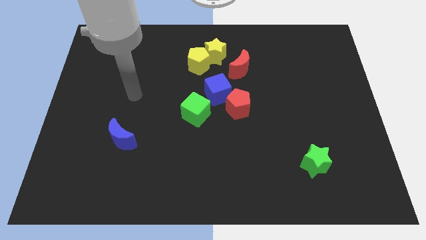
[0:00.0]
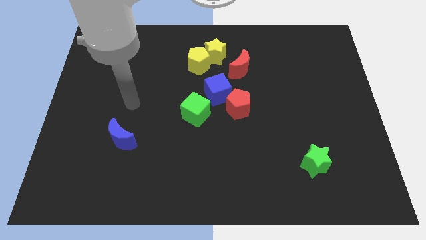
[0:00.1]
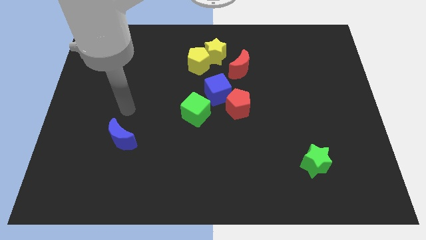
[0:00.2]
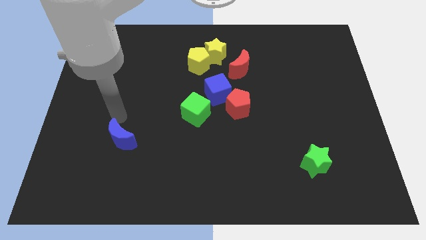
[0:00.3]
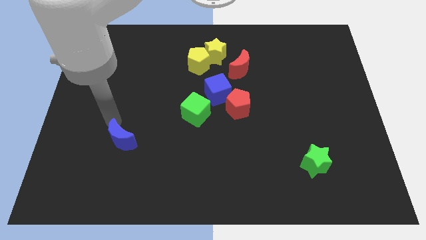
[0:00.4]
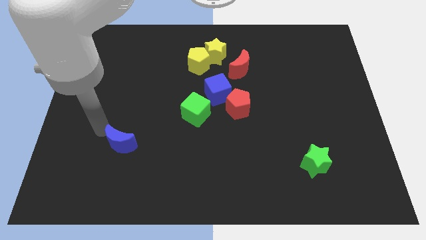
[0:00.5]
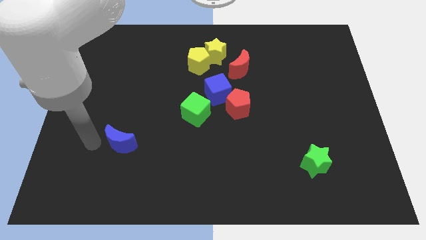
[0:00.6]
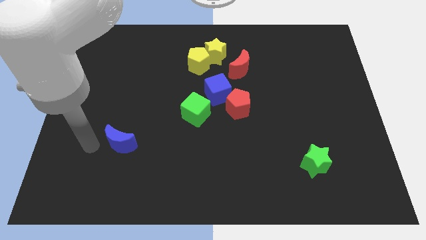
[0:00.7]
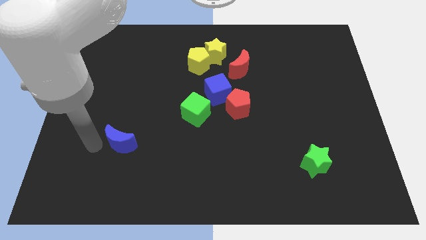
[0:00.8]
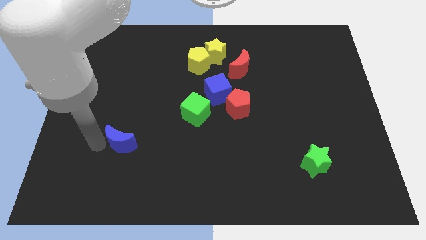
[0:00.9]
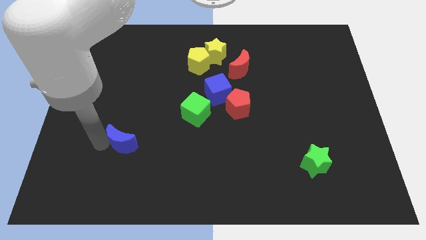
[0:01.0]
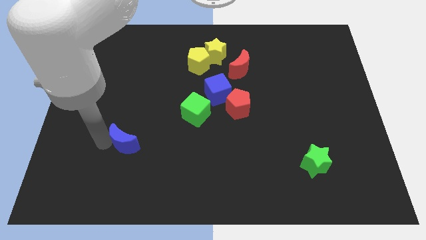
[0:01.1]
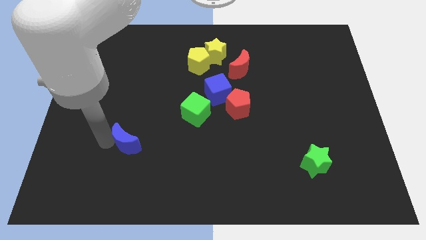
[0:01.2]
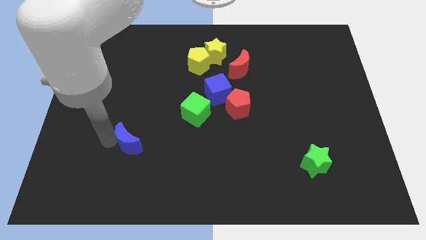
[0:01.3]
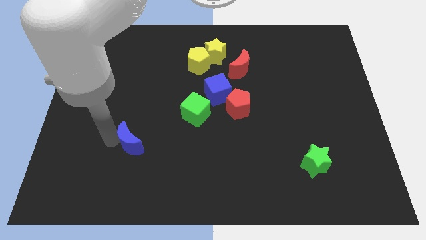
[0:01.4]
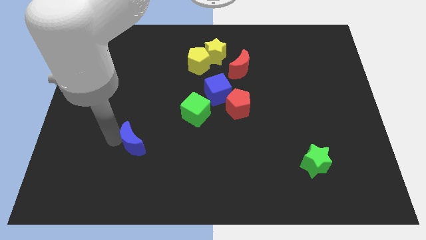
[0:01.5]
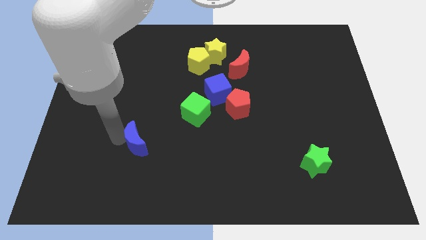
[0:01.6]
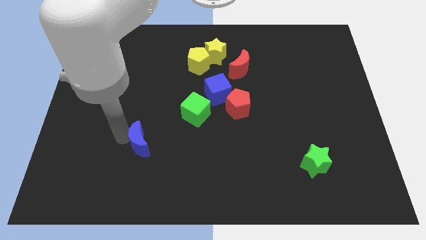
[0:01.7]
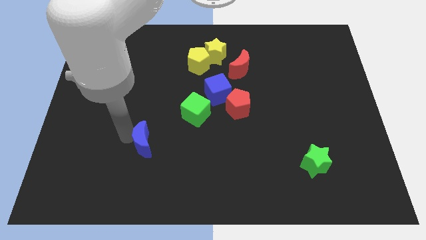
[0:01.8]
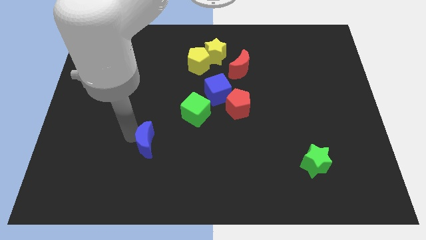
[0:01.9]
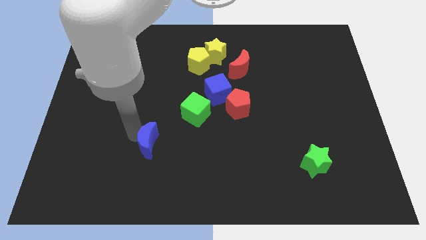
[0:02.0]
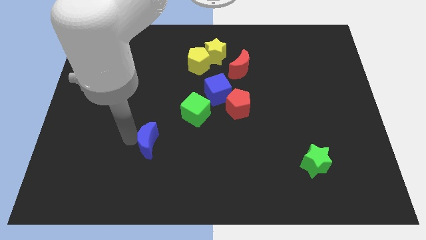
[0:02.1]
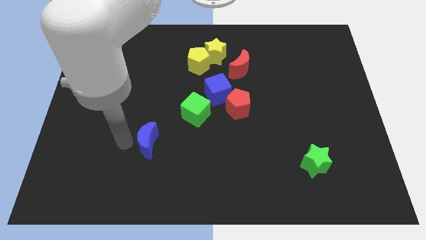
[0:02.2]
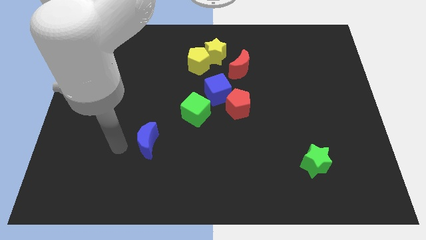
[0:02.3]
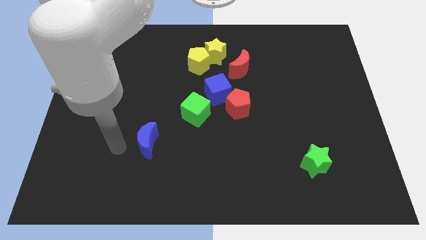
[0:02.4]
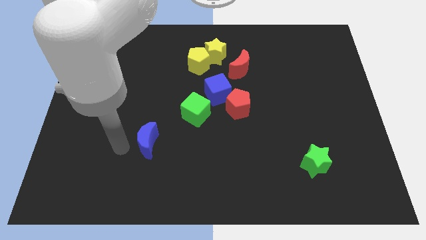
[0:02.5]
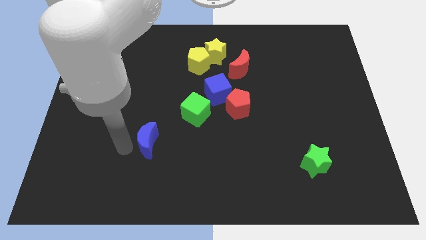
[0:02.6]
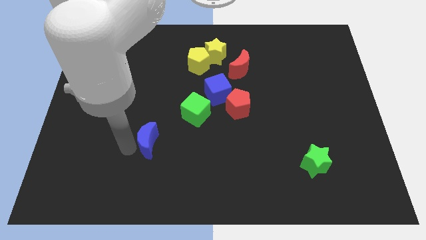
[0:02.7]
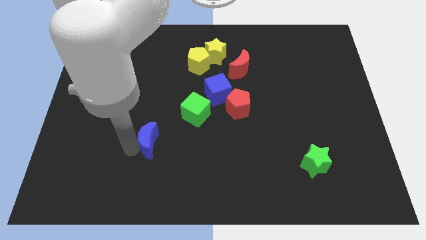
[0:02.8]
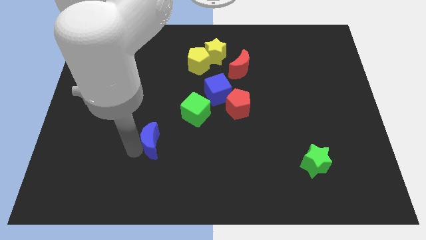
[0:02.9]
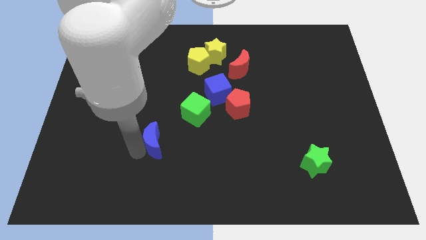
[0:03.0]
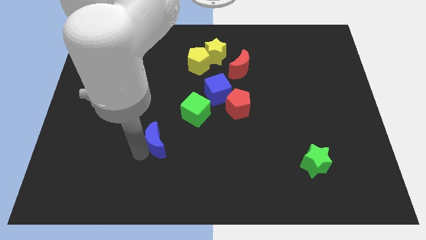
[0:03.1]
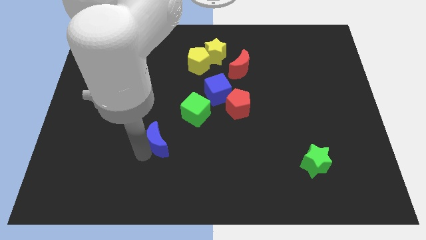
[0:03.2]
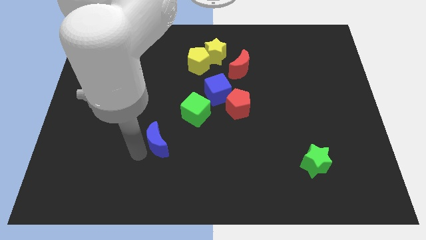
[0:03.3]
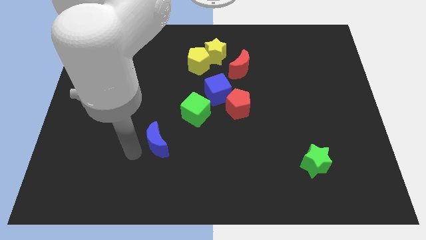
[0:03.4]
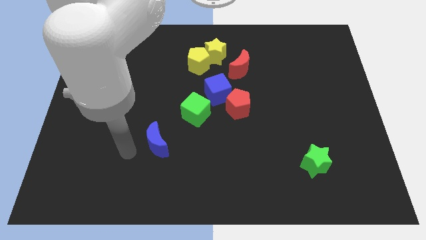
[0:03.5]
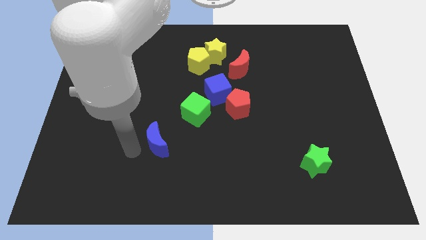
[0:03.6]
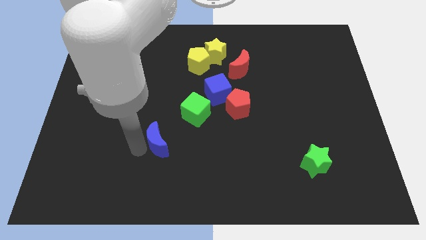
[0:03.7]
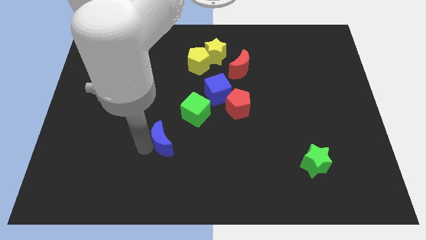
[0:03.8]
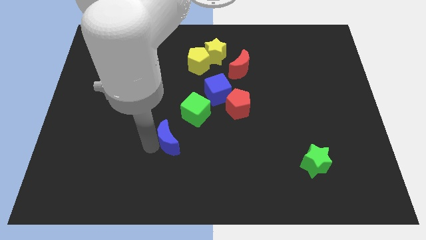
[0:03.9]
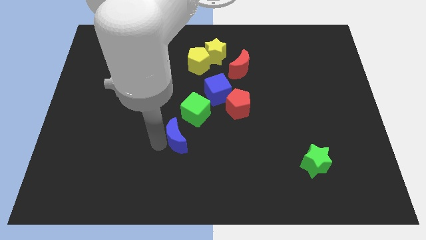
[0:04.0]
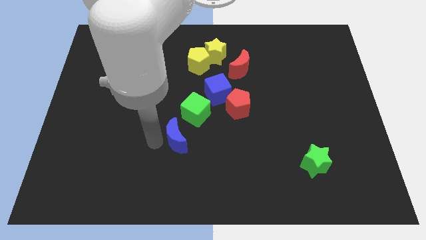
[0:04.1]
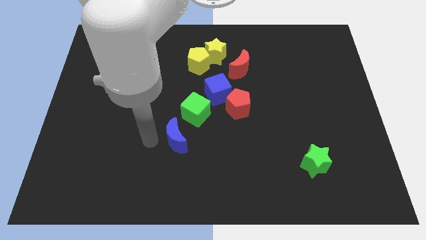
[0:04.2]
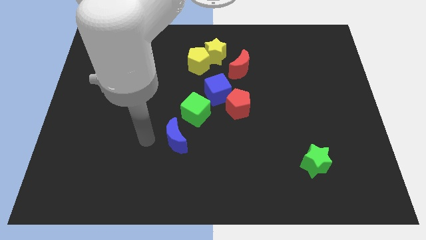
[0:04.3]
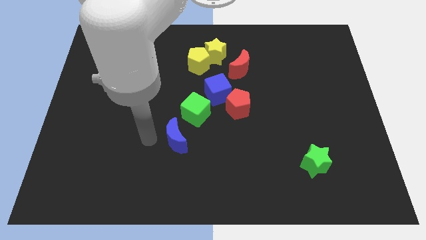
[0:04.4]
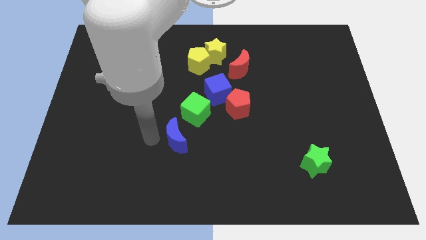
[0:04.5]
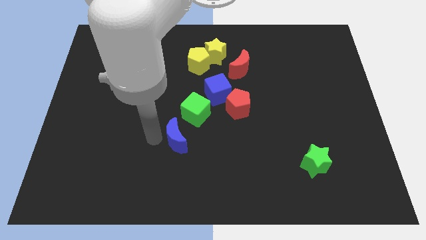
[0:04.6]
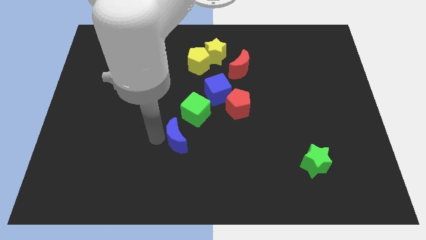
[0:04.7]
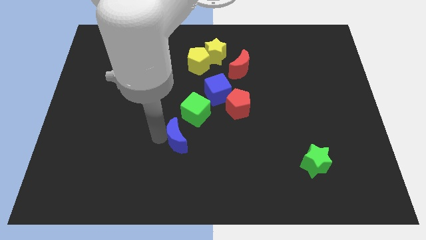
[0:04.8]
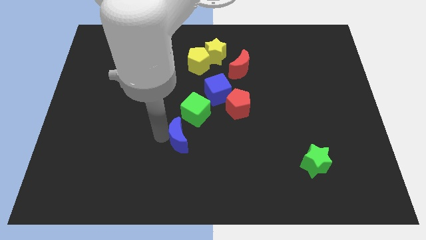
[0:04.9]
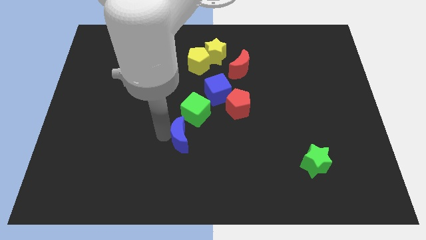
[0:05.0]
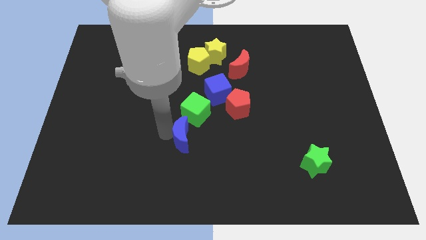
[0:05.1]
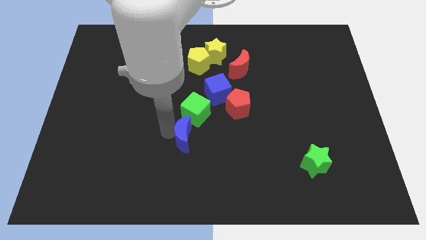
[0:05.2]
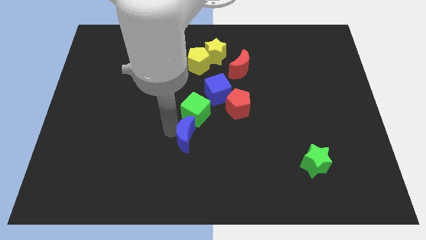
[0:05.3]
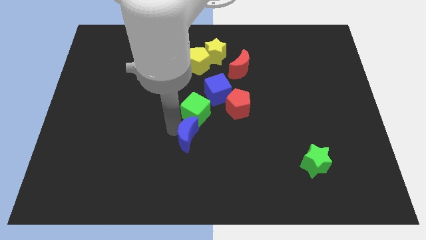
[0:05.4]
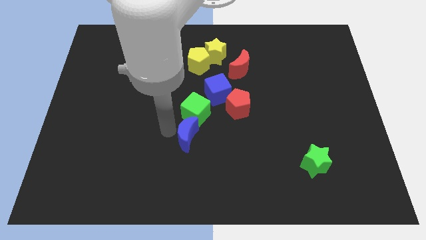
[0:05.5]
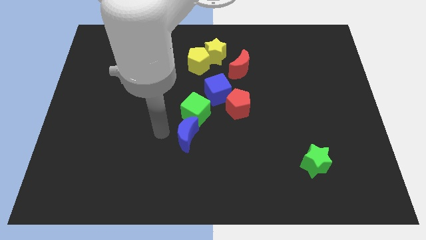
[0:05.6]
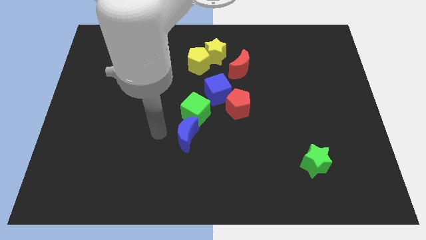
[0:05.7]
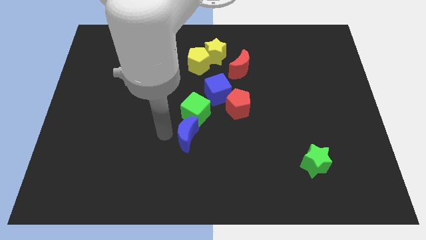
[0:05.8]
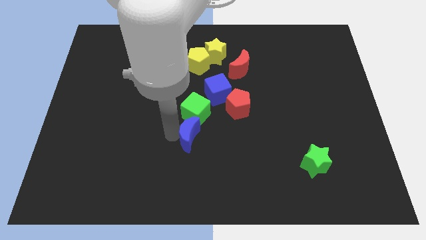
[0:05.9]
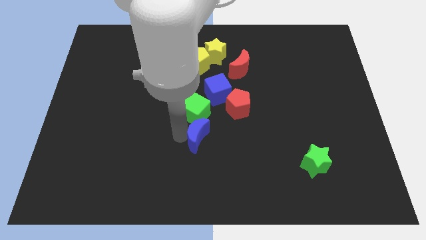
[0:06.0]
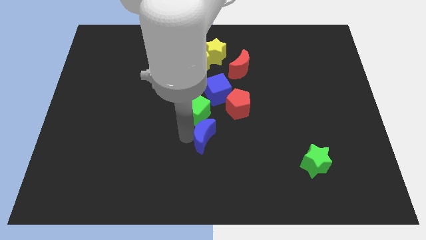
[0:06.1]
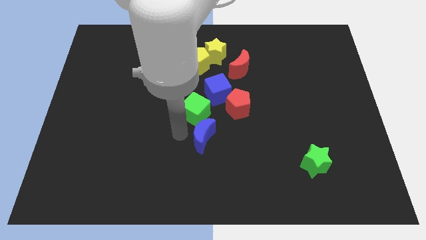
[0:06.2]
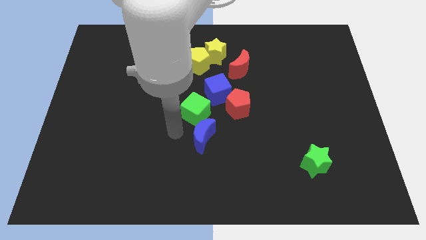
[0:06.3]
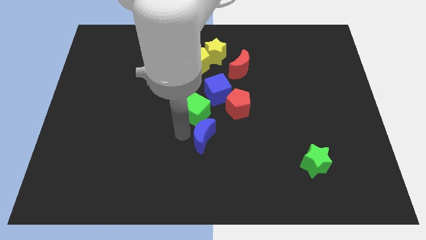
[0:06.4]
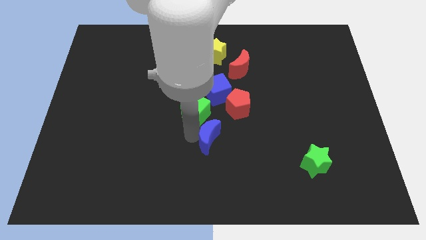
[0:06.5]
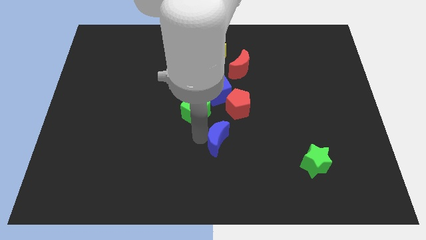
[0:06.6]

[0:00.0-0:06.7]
put the blue moon to the bottom of the red pentagon

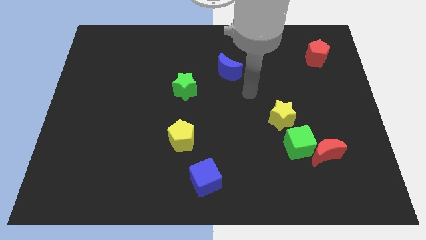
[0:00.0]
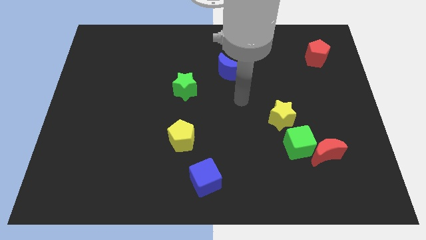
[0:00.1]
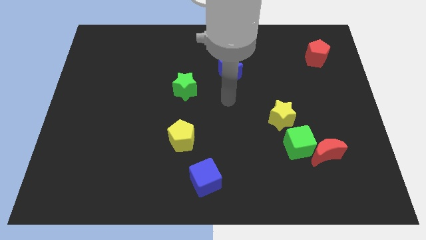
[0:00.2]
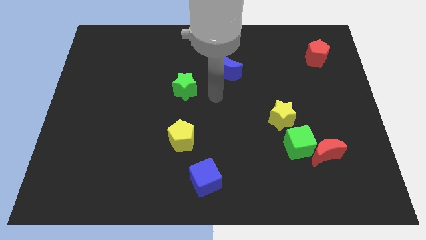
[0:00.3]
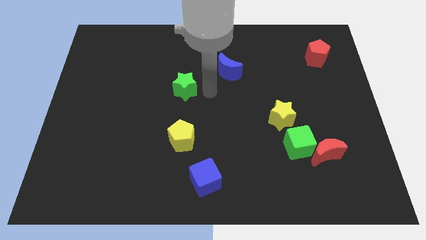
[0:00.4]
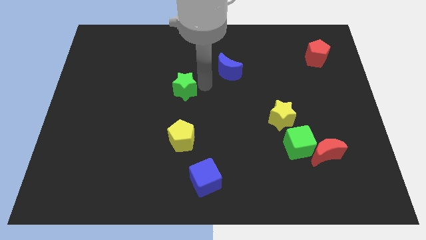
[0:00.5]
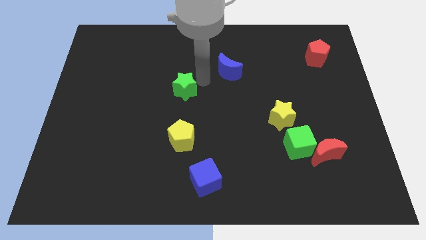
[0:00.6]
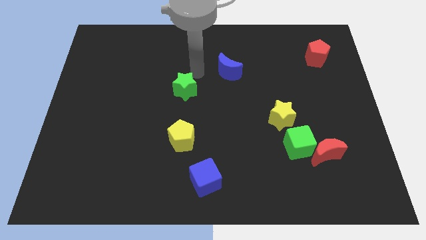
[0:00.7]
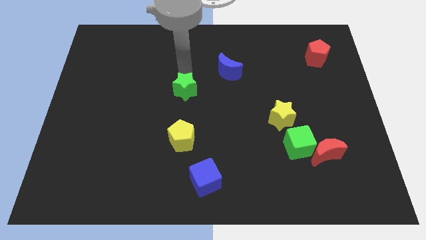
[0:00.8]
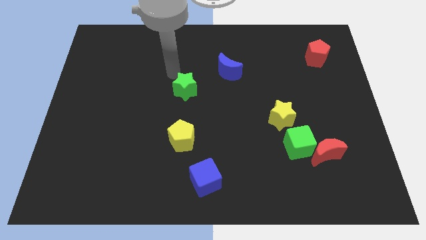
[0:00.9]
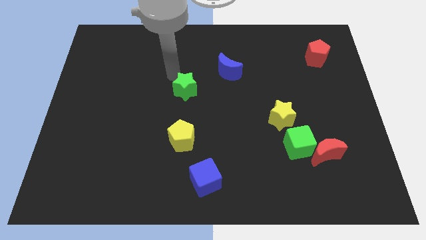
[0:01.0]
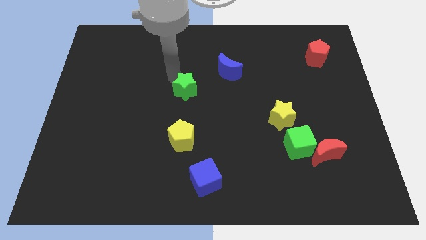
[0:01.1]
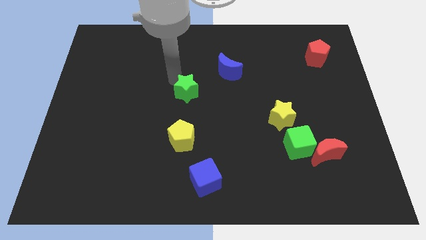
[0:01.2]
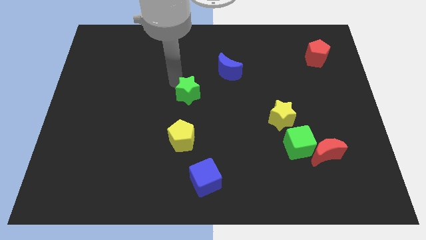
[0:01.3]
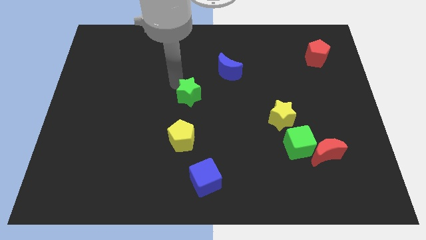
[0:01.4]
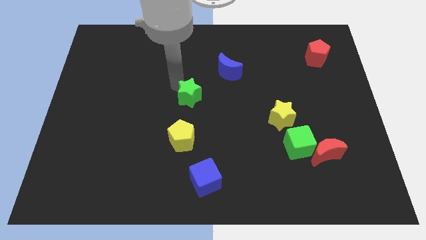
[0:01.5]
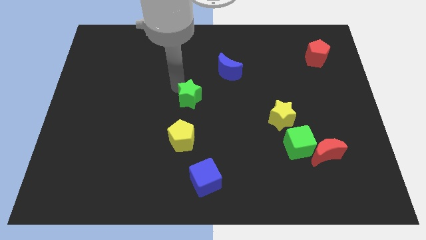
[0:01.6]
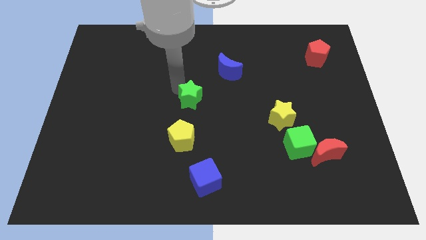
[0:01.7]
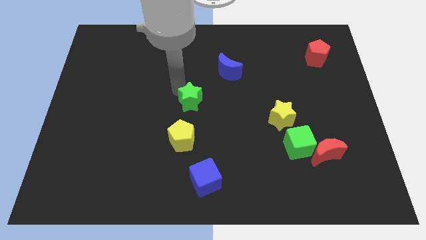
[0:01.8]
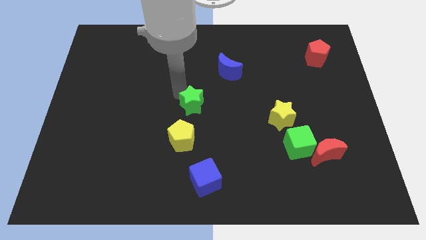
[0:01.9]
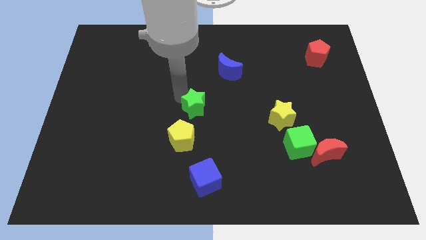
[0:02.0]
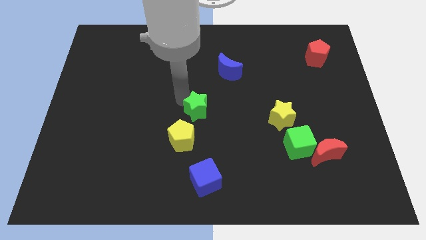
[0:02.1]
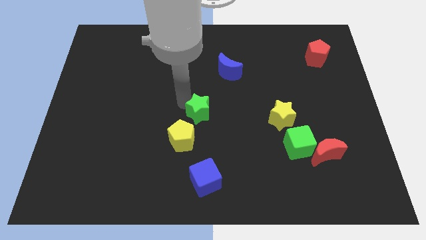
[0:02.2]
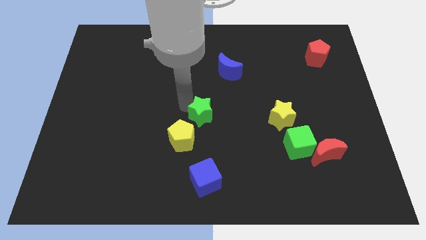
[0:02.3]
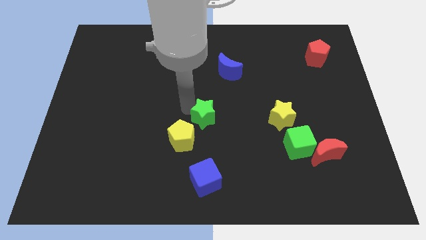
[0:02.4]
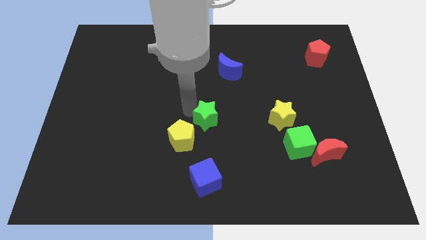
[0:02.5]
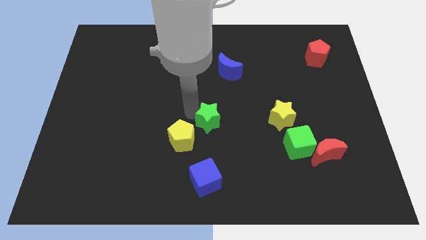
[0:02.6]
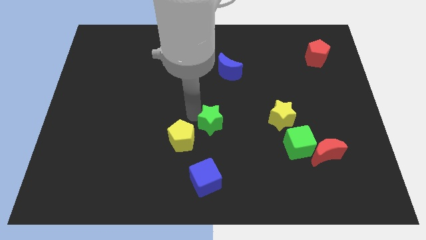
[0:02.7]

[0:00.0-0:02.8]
push the green star left of the yellow star
